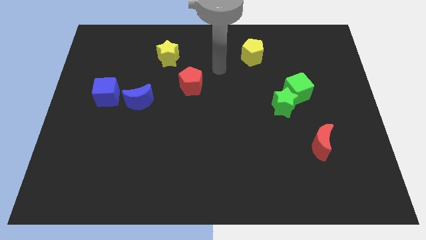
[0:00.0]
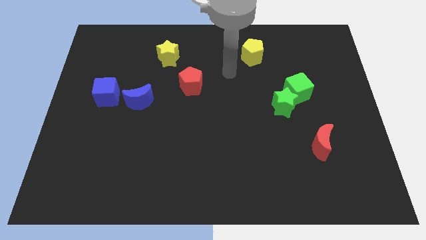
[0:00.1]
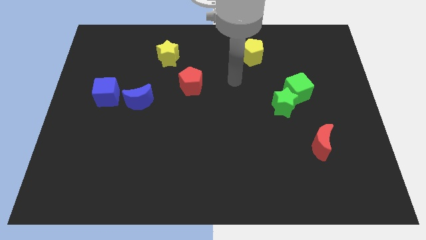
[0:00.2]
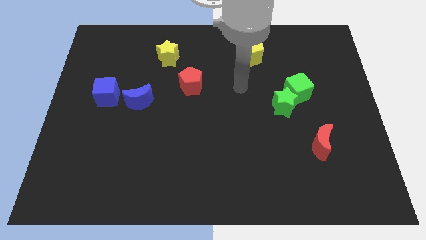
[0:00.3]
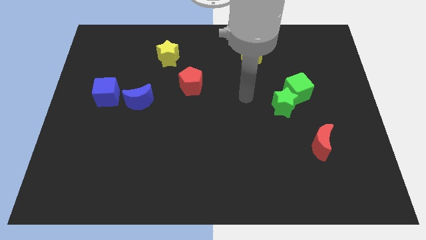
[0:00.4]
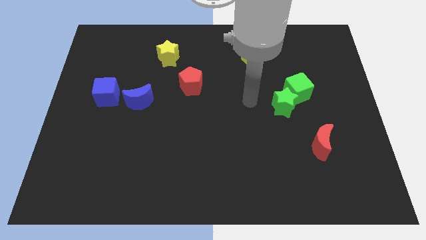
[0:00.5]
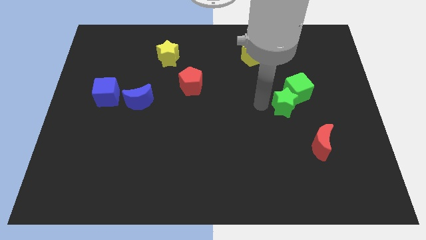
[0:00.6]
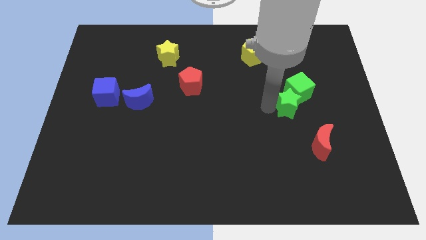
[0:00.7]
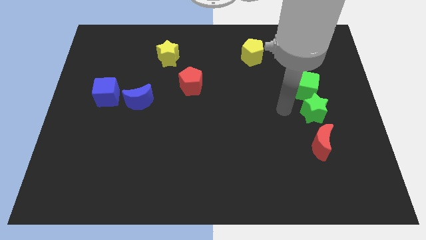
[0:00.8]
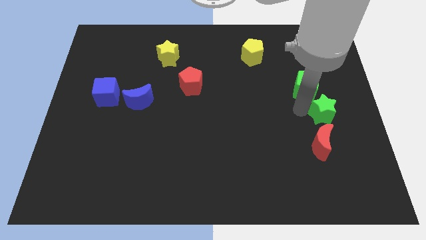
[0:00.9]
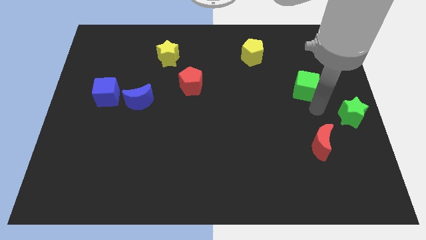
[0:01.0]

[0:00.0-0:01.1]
separate the green cube from the green star

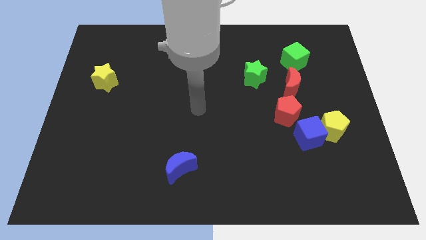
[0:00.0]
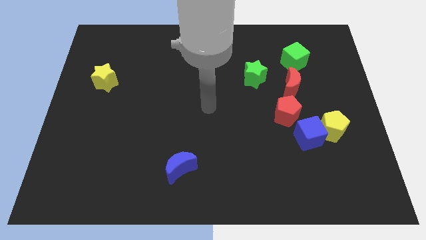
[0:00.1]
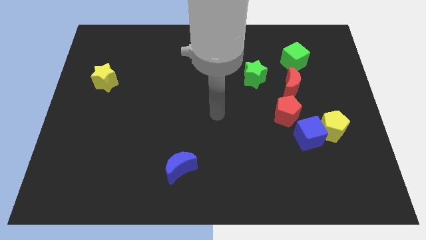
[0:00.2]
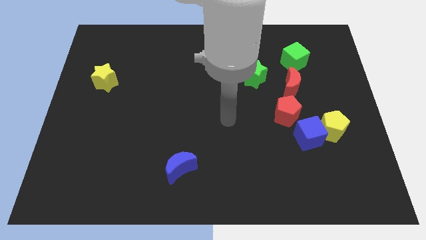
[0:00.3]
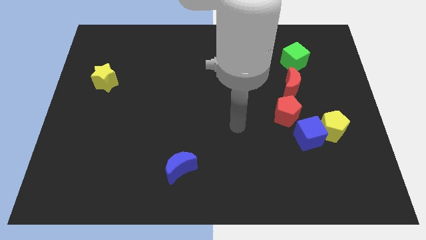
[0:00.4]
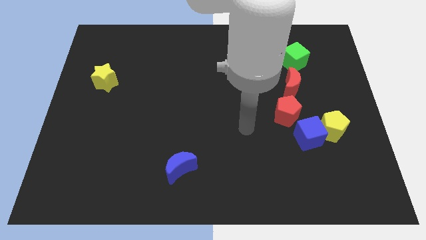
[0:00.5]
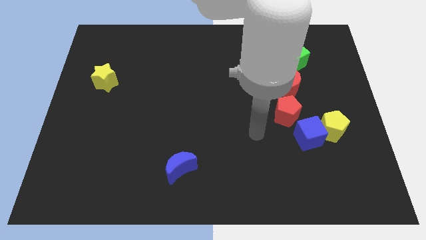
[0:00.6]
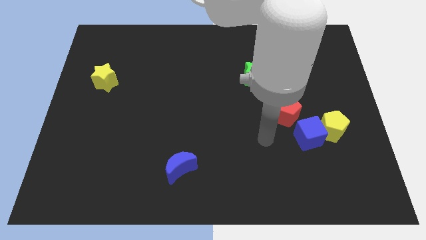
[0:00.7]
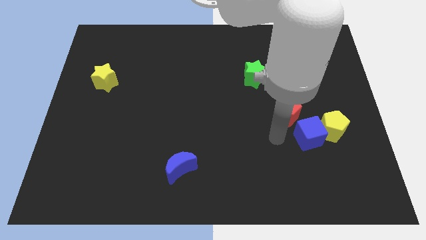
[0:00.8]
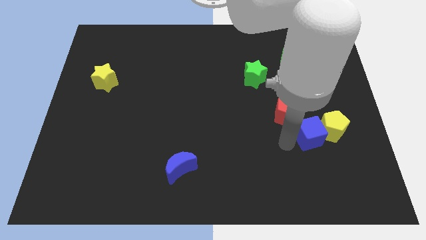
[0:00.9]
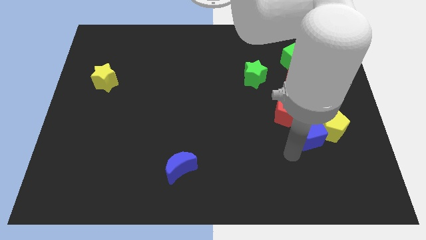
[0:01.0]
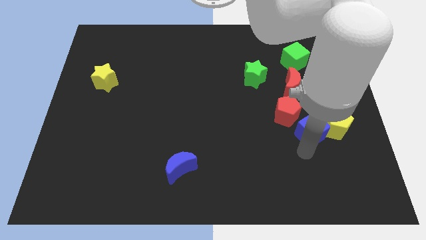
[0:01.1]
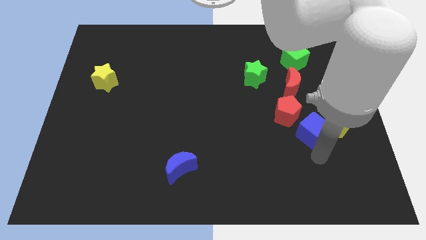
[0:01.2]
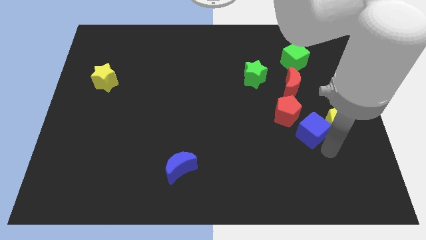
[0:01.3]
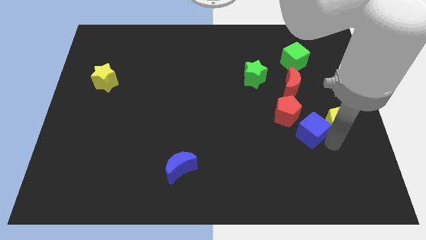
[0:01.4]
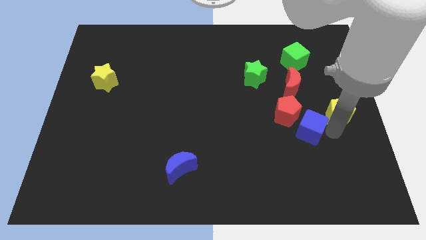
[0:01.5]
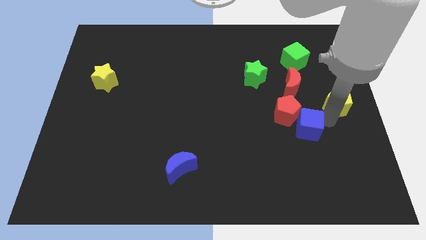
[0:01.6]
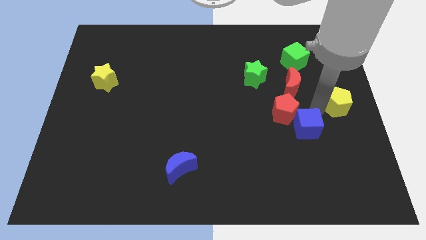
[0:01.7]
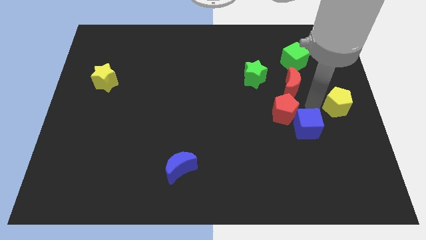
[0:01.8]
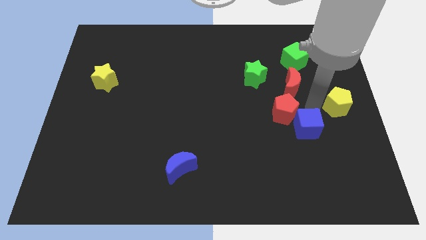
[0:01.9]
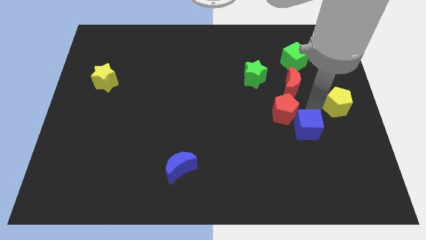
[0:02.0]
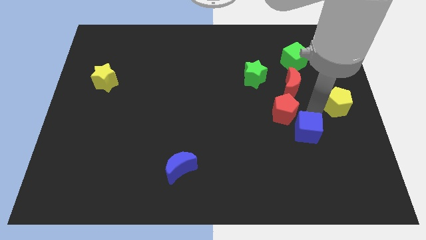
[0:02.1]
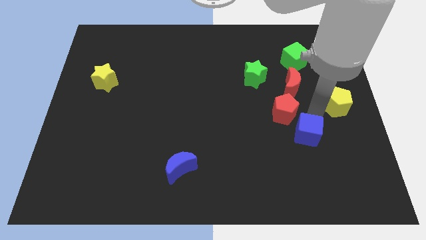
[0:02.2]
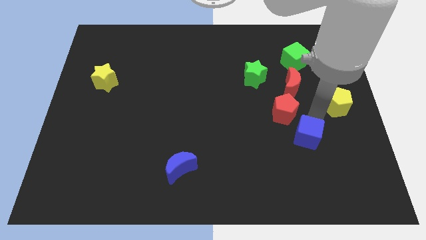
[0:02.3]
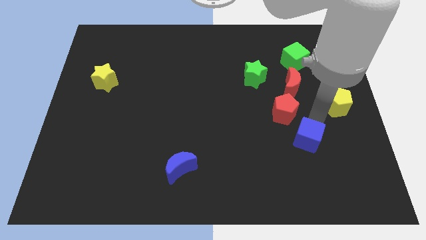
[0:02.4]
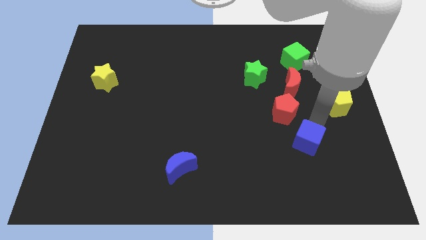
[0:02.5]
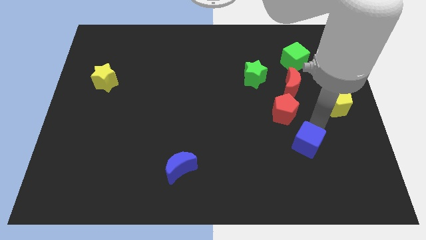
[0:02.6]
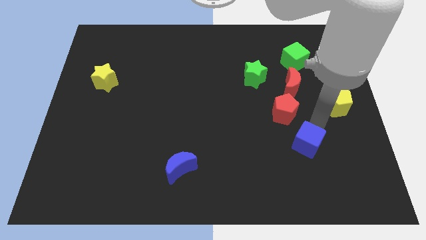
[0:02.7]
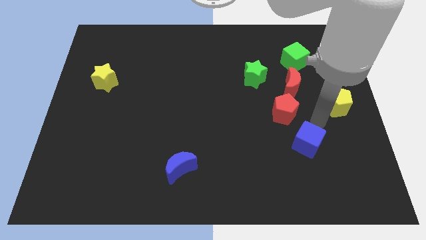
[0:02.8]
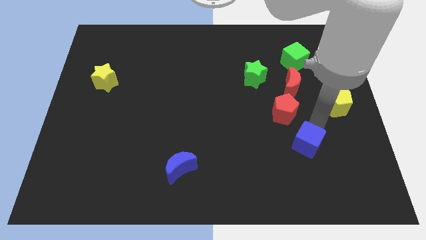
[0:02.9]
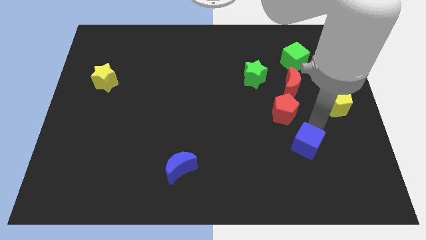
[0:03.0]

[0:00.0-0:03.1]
separate the blue cube from the yellow pentagon and red pentagon

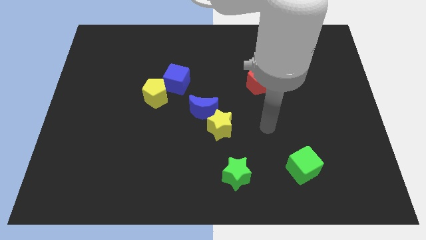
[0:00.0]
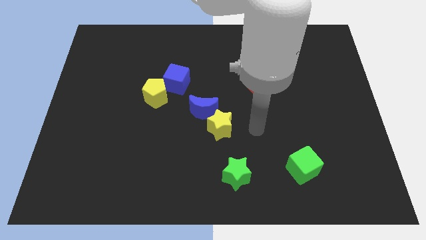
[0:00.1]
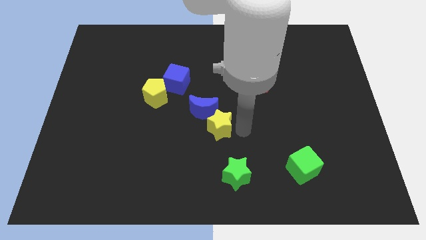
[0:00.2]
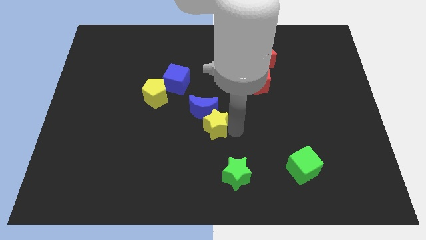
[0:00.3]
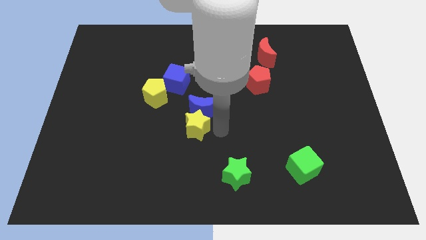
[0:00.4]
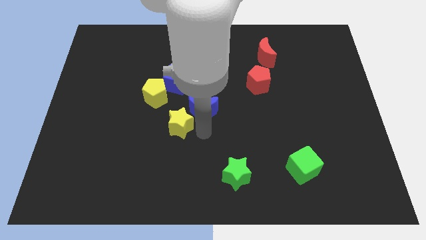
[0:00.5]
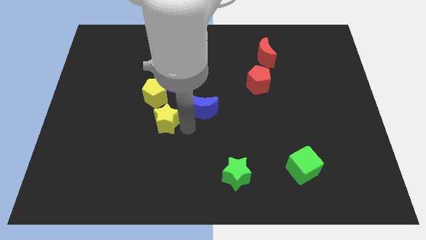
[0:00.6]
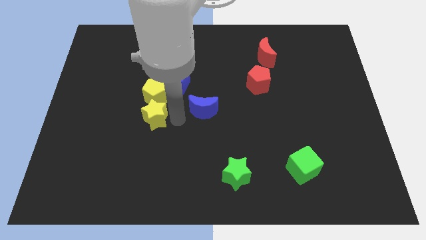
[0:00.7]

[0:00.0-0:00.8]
pull the blue moon apart from the yellow star

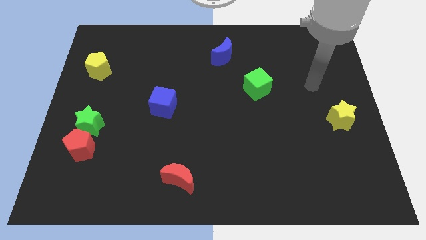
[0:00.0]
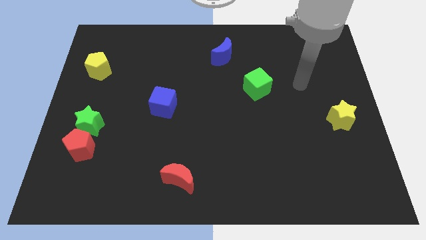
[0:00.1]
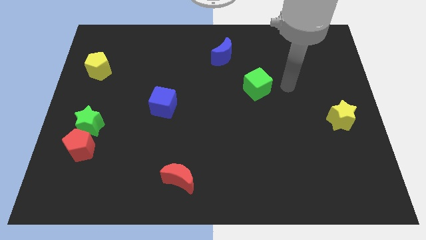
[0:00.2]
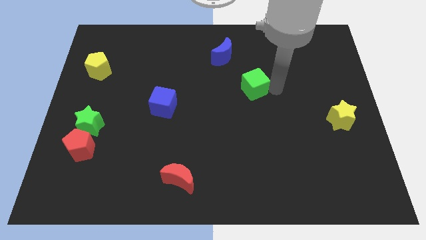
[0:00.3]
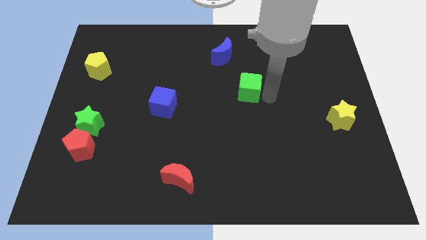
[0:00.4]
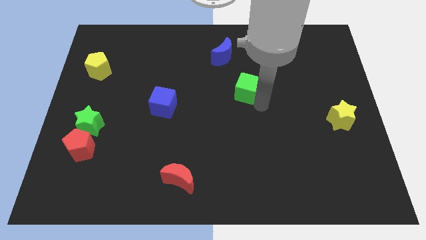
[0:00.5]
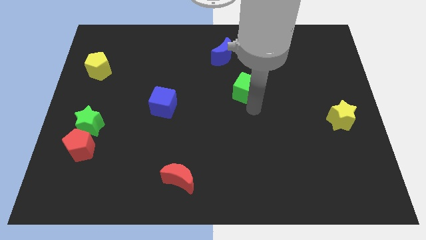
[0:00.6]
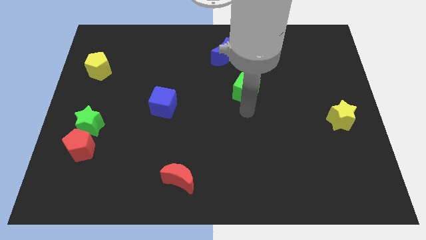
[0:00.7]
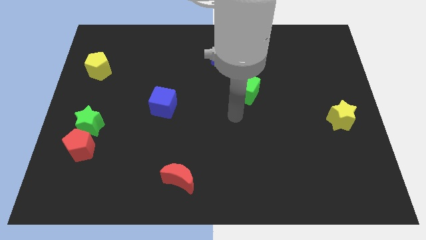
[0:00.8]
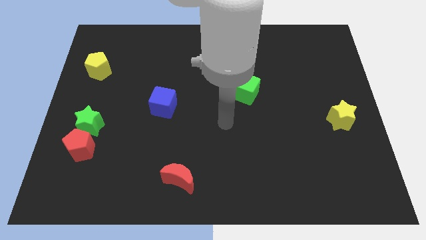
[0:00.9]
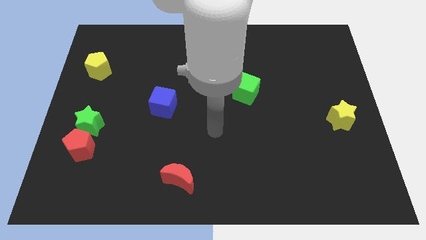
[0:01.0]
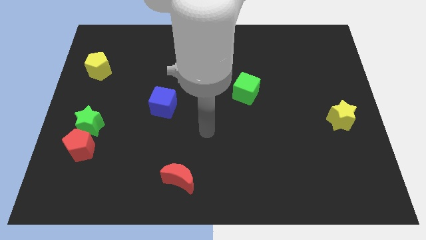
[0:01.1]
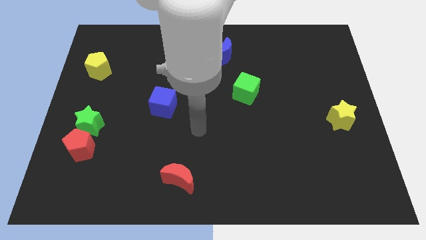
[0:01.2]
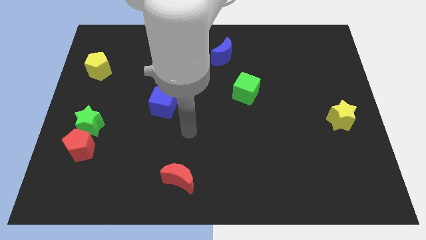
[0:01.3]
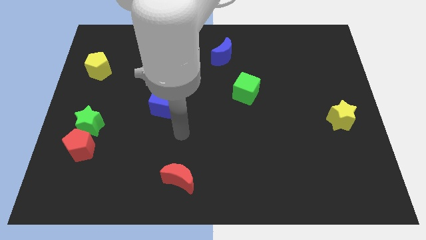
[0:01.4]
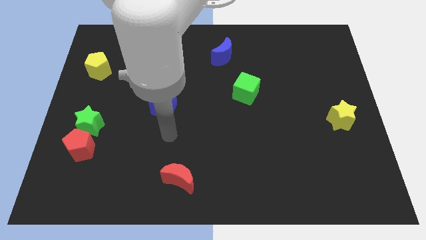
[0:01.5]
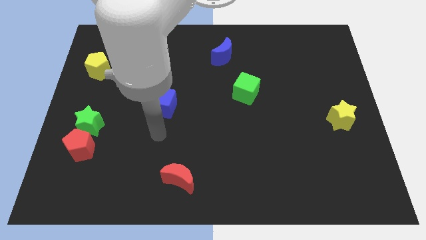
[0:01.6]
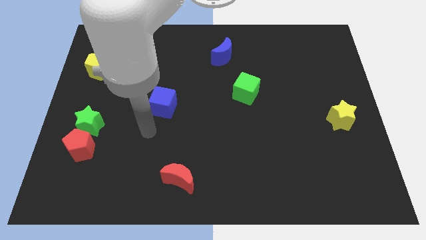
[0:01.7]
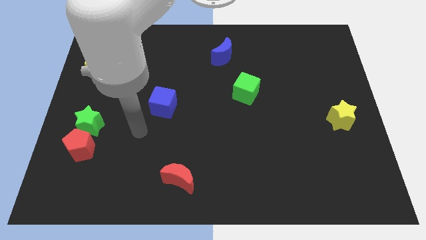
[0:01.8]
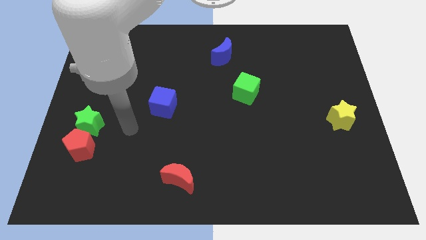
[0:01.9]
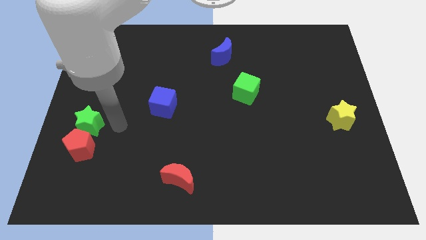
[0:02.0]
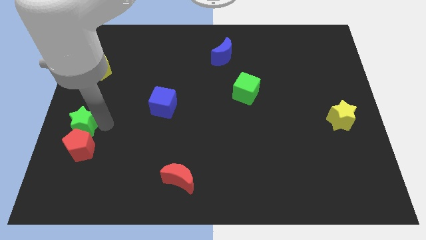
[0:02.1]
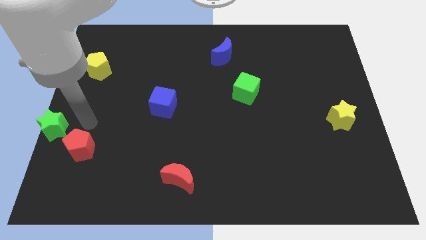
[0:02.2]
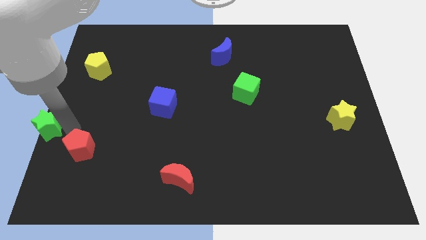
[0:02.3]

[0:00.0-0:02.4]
pull the red pentagon apart from the green star

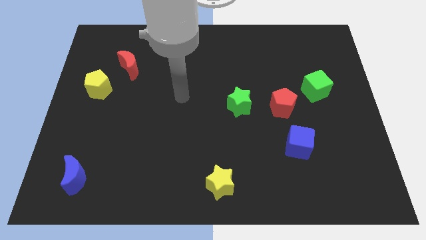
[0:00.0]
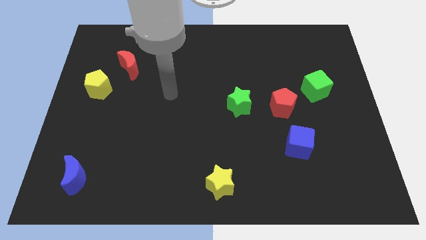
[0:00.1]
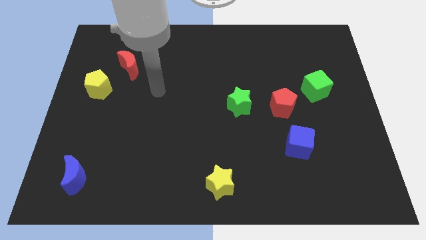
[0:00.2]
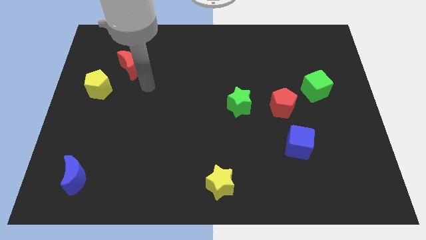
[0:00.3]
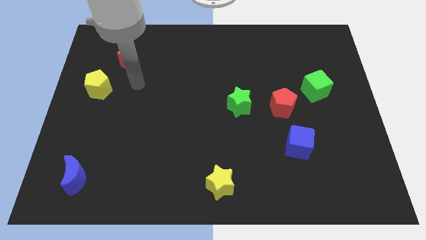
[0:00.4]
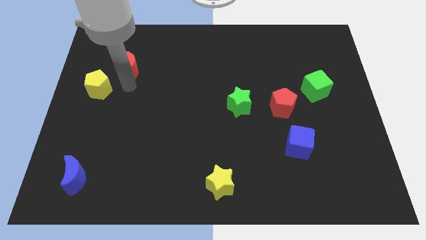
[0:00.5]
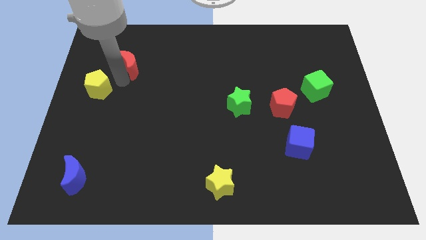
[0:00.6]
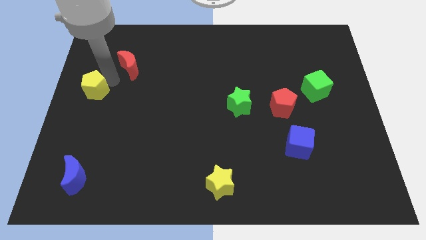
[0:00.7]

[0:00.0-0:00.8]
move the red moon away from the yellow pentagon

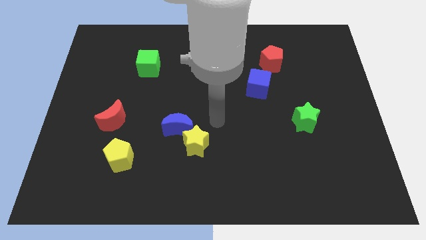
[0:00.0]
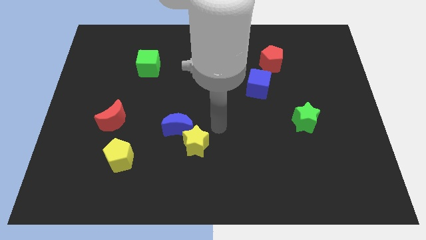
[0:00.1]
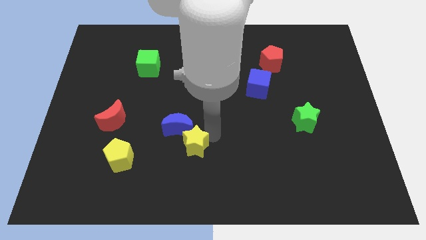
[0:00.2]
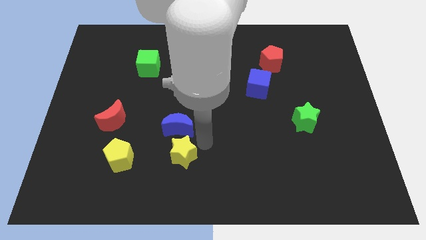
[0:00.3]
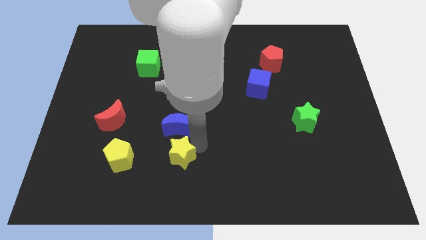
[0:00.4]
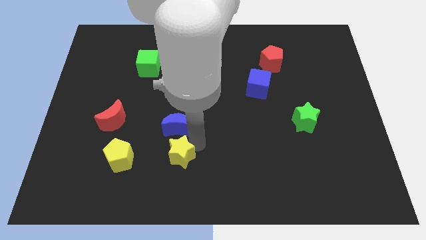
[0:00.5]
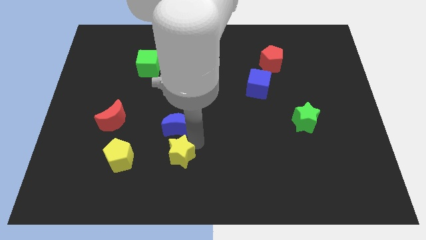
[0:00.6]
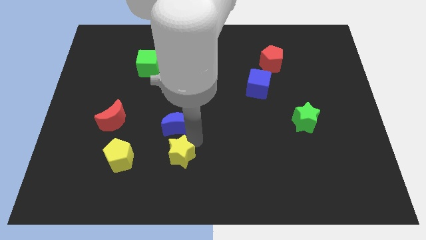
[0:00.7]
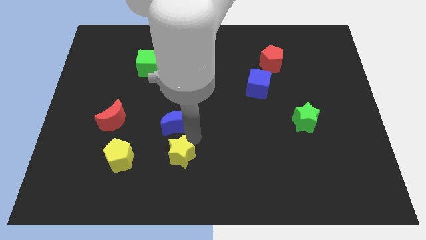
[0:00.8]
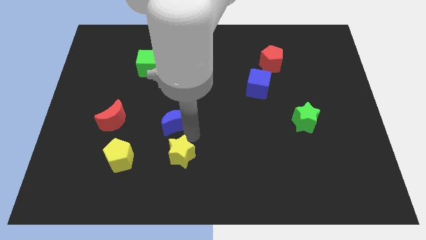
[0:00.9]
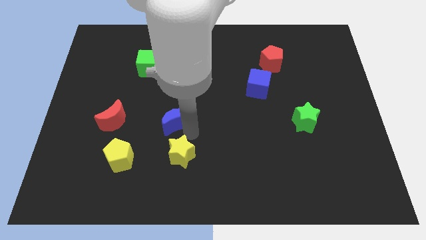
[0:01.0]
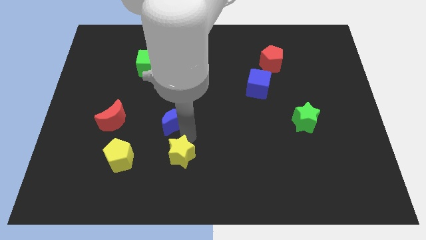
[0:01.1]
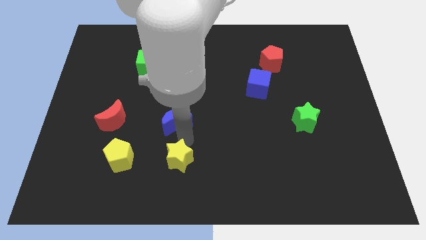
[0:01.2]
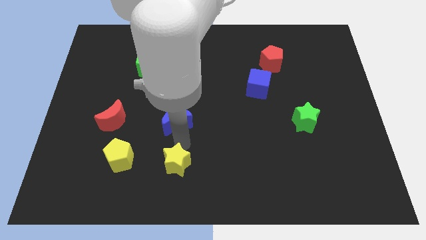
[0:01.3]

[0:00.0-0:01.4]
move the blue moon away from the yellow star
